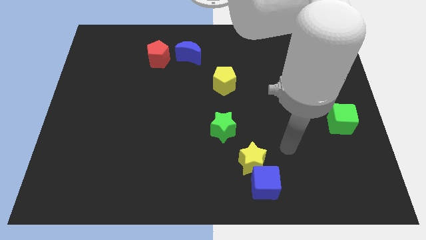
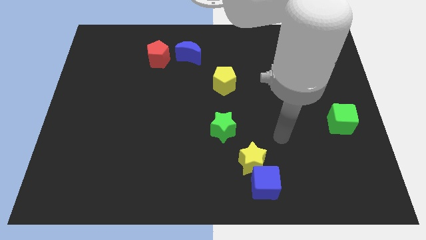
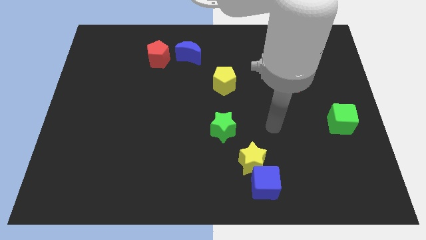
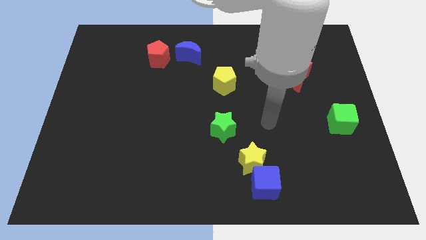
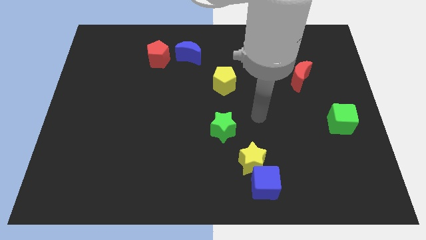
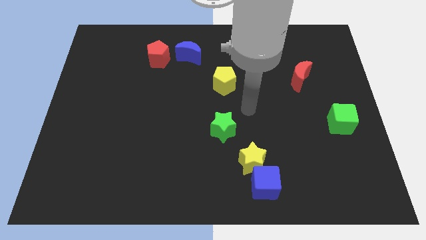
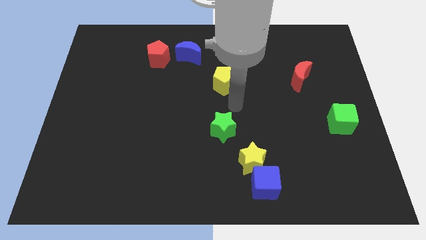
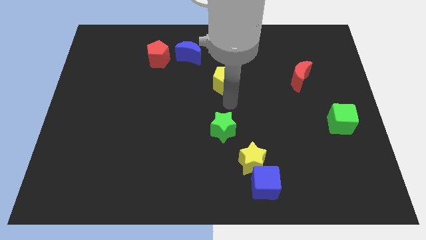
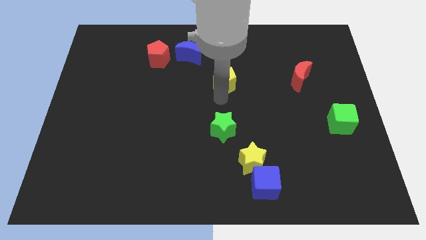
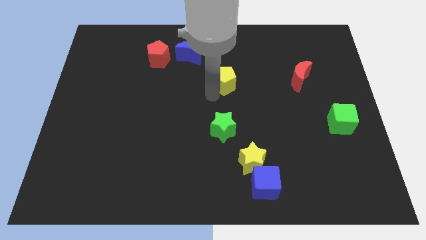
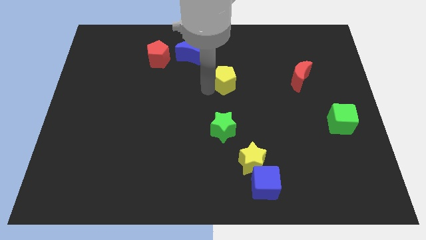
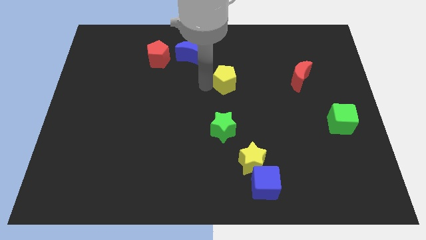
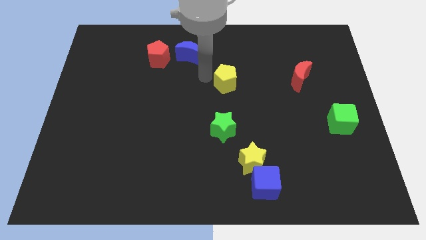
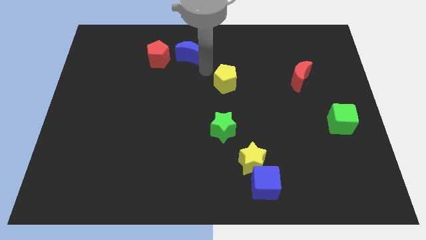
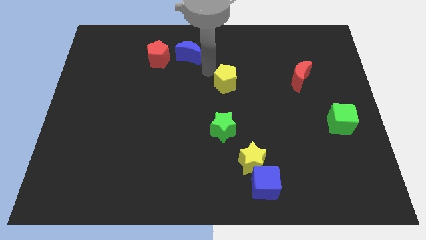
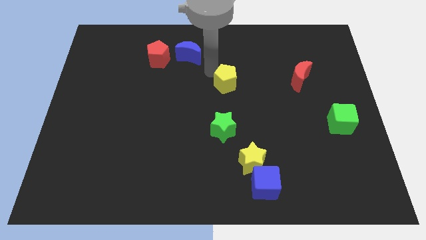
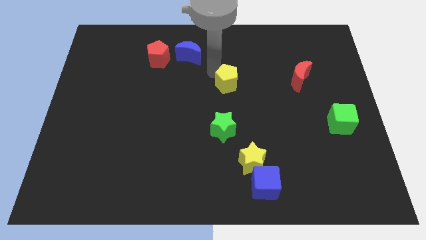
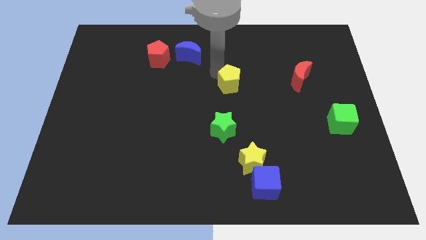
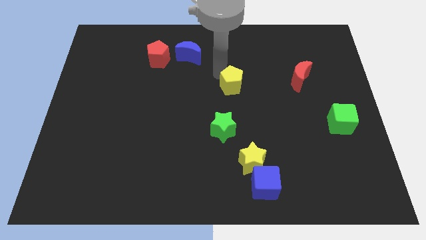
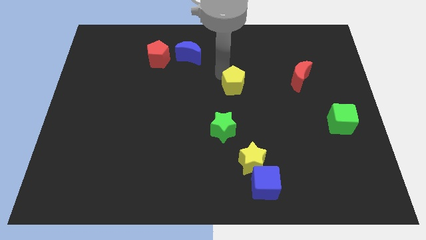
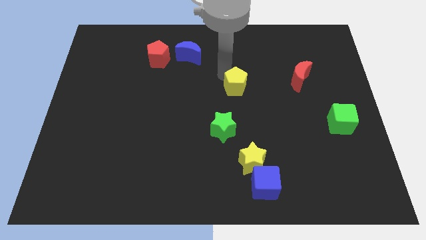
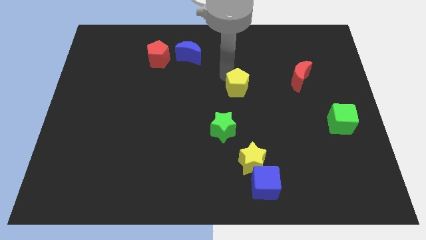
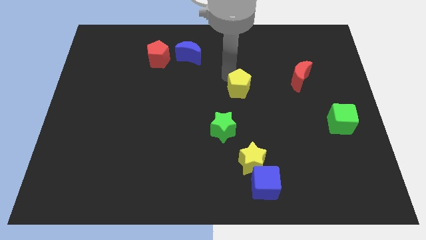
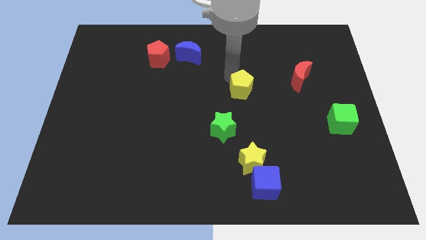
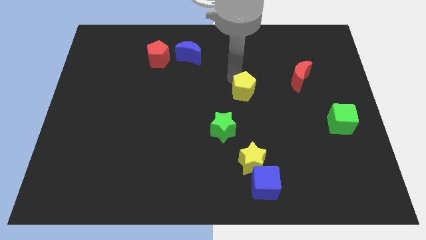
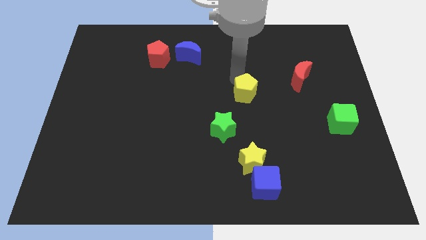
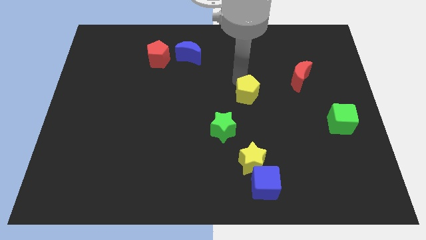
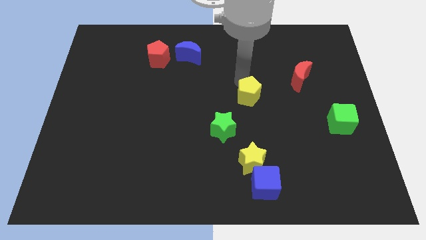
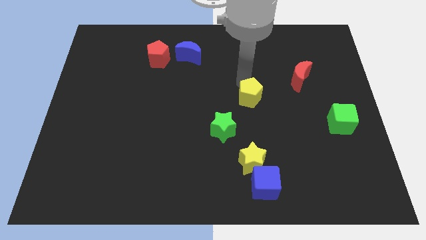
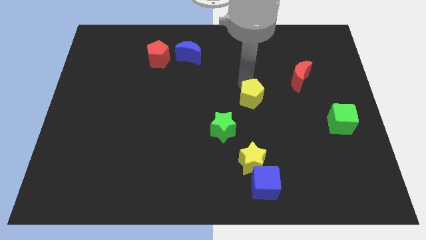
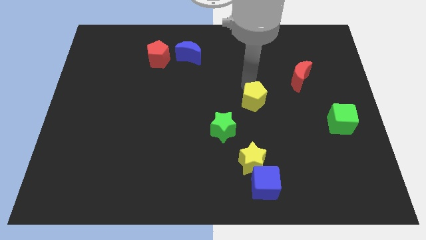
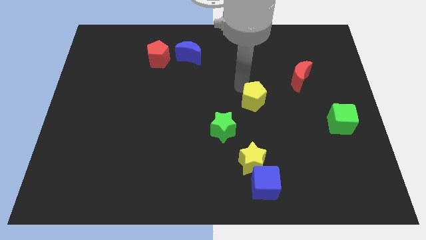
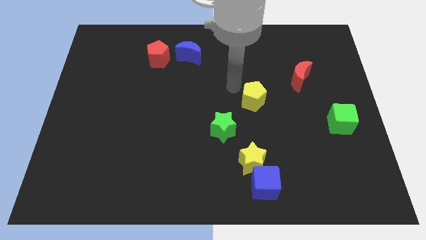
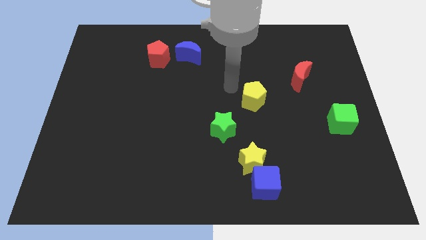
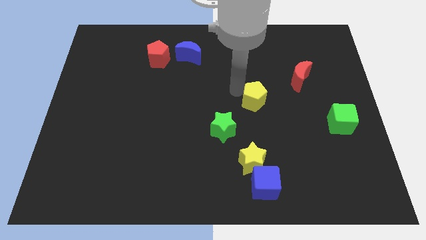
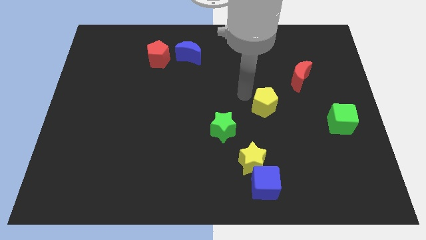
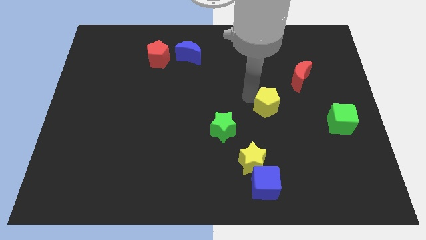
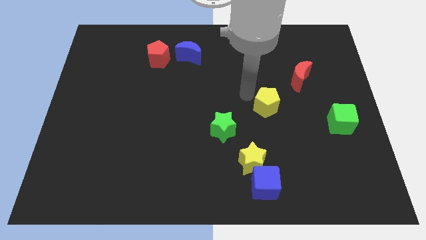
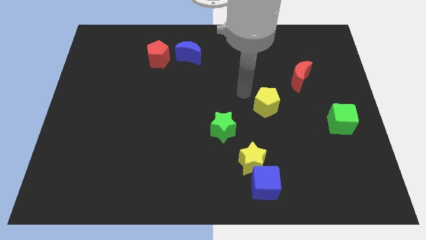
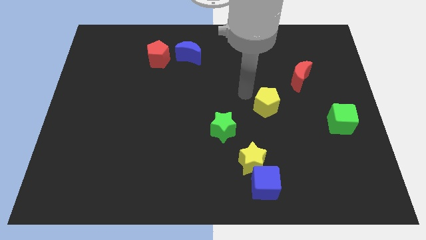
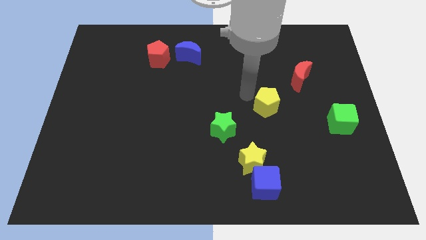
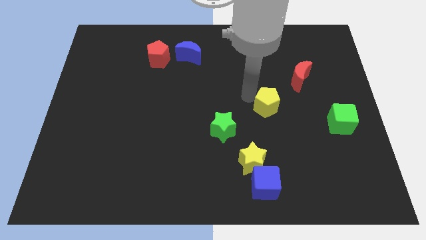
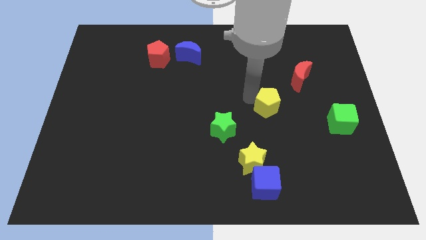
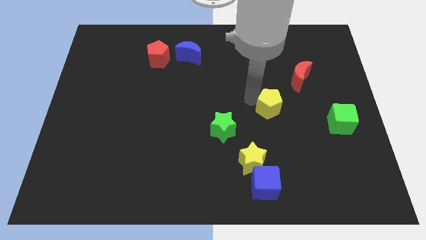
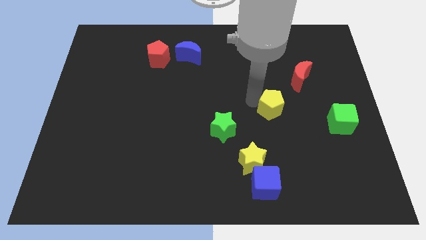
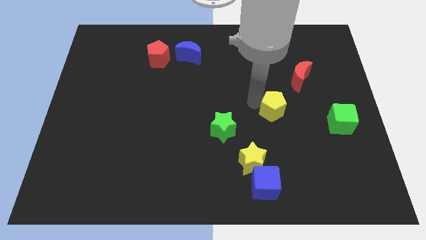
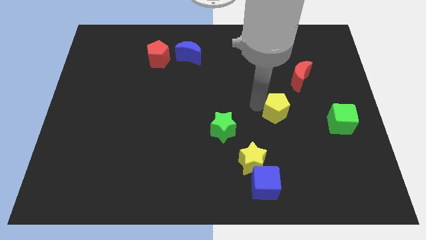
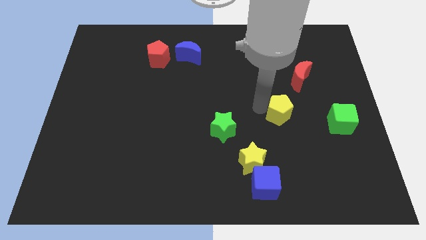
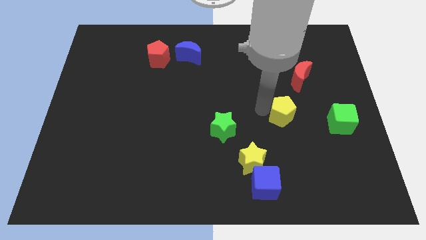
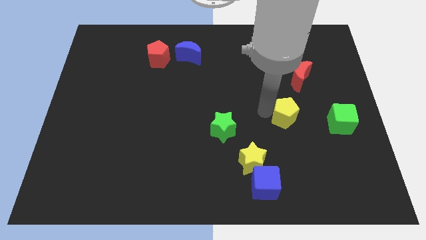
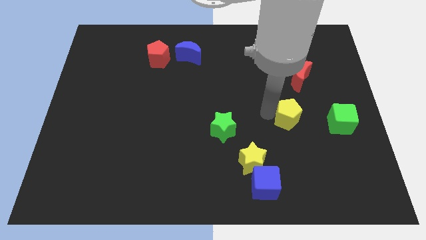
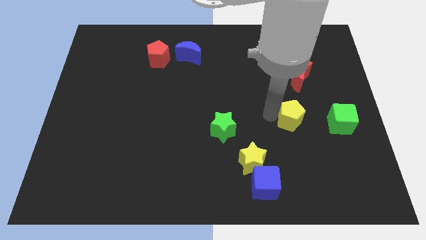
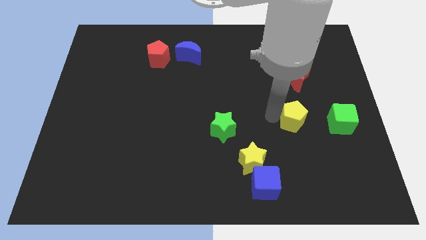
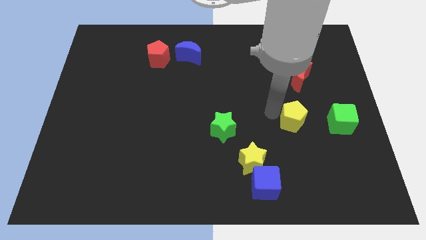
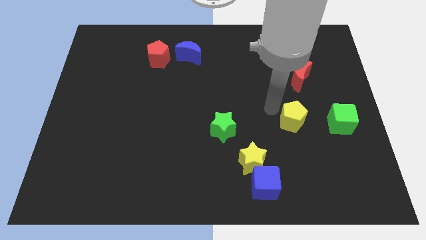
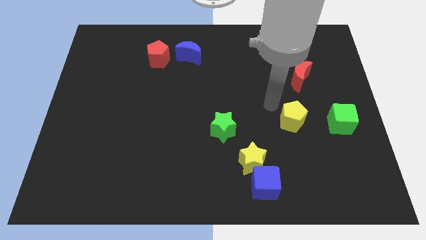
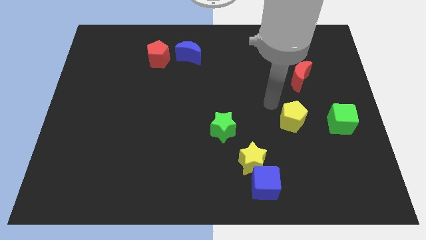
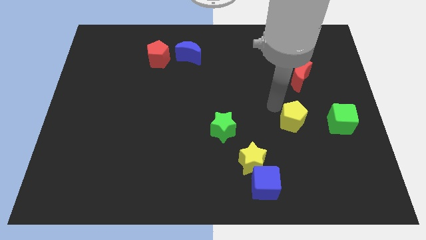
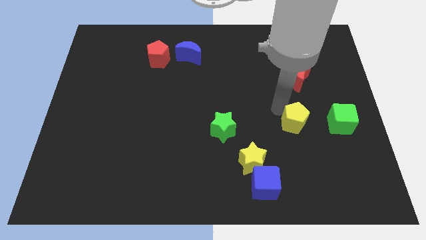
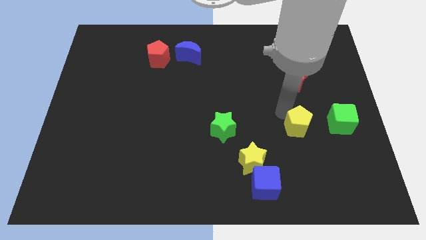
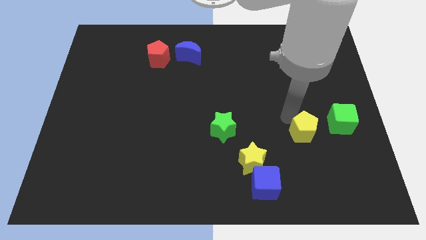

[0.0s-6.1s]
push the yellow pentagon diagonally down and to the left of the green cube

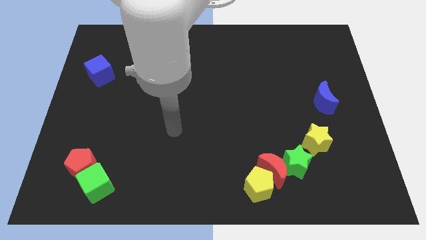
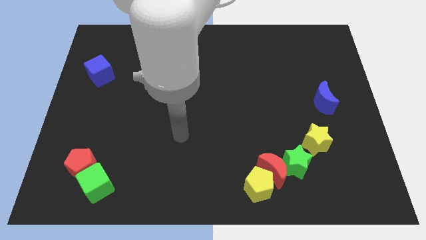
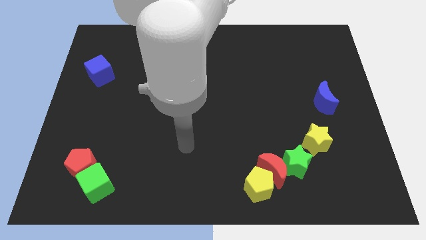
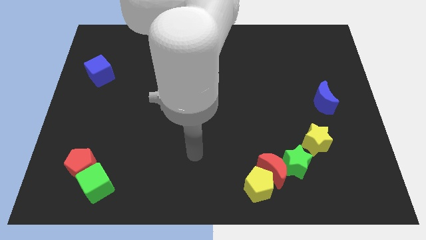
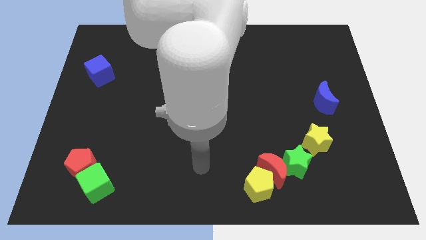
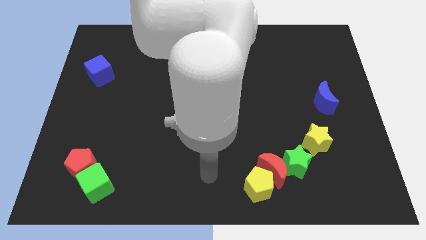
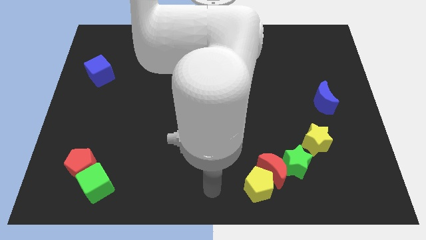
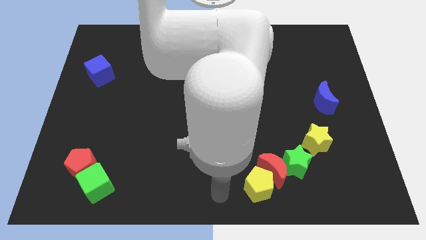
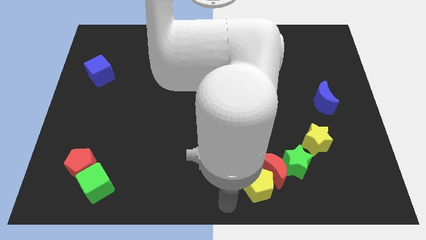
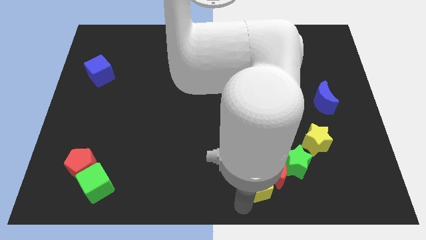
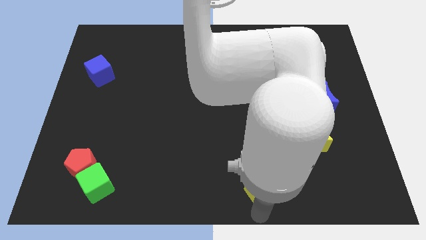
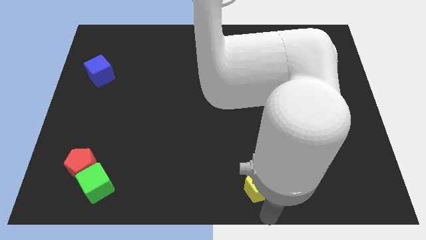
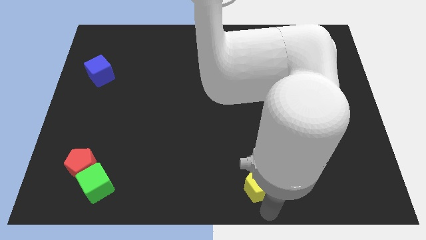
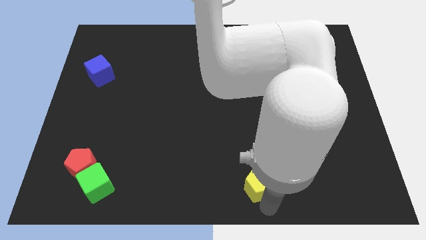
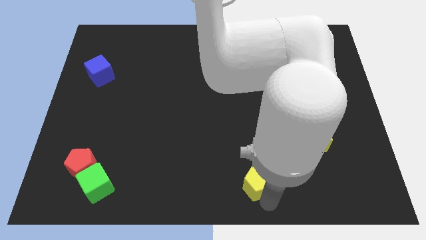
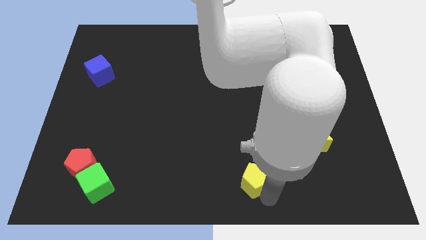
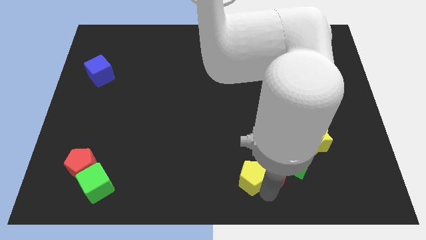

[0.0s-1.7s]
put the yellow pentagon diagonally up and to the left of the red moon
